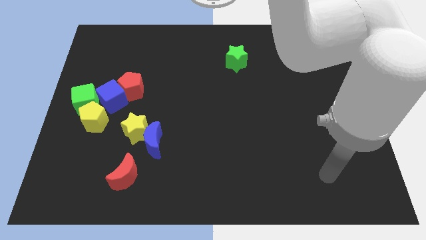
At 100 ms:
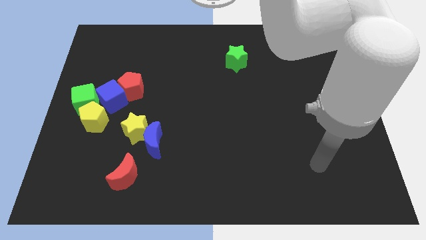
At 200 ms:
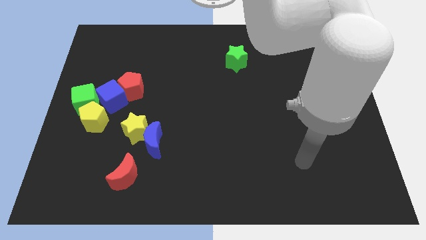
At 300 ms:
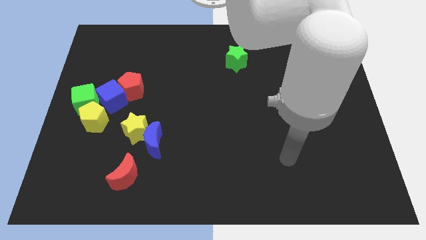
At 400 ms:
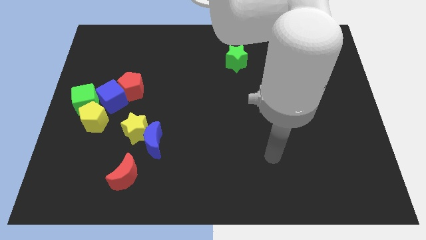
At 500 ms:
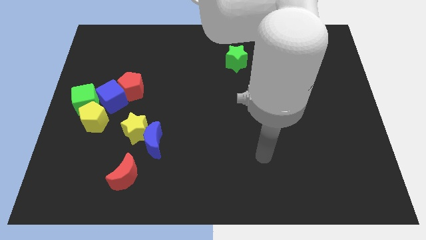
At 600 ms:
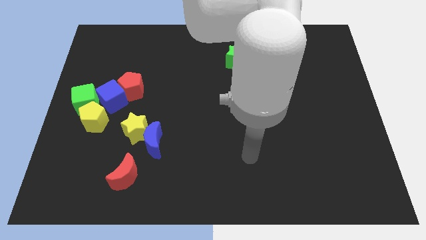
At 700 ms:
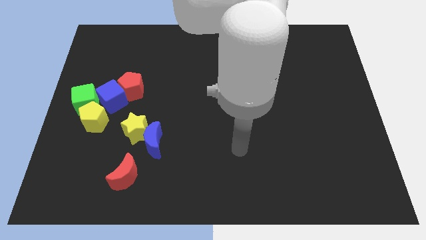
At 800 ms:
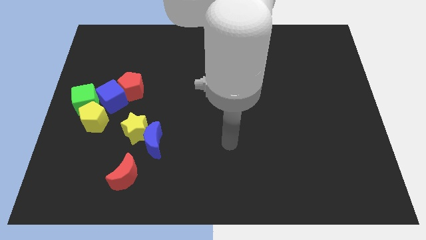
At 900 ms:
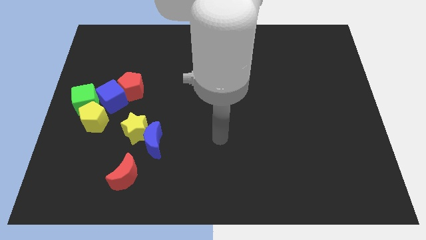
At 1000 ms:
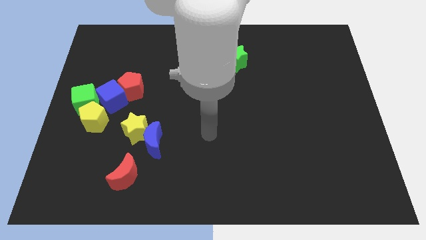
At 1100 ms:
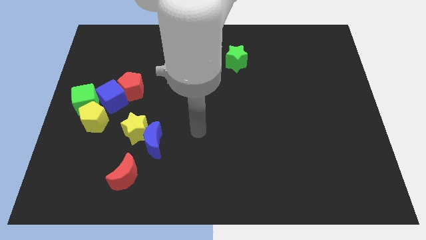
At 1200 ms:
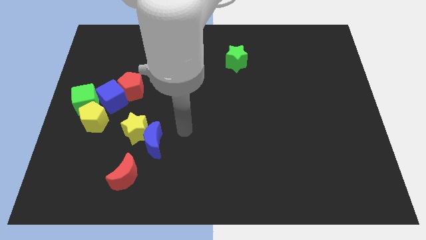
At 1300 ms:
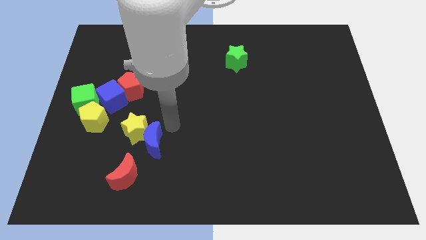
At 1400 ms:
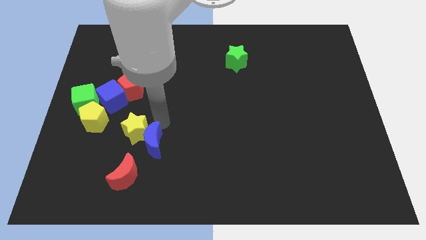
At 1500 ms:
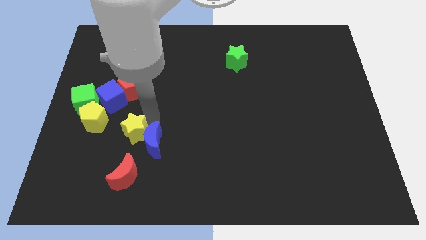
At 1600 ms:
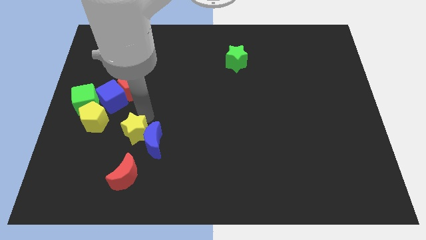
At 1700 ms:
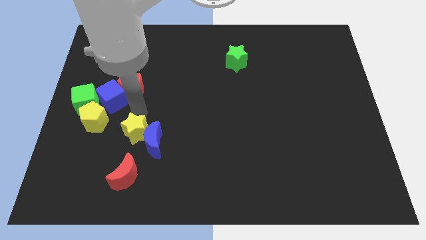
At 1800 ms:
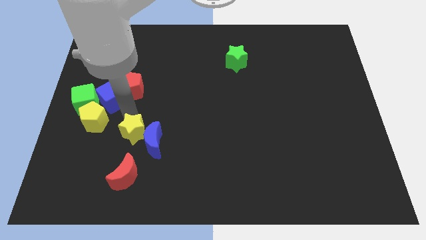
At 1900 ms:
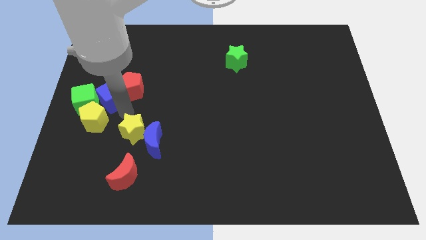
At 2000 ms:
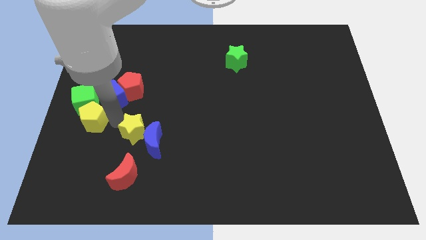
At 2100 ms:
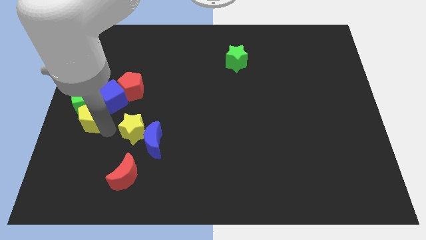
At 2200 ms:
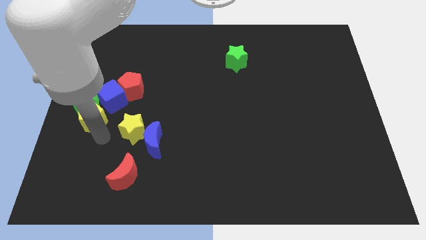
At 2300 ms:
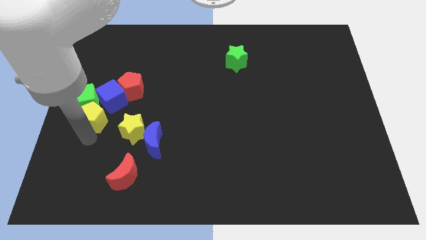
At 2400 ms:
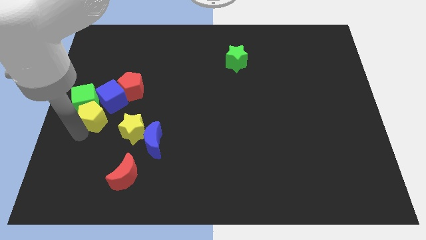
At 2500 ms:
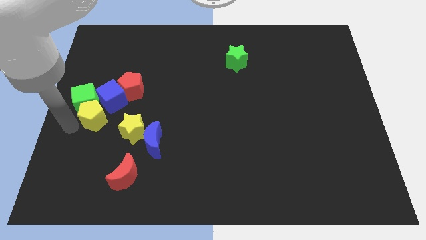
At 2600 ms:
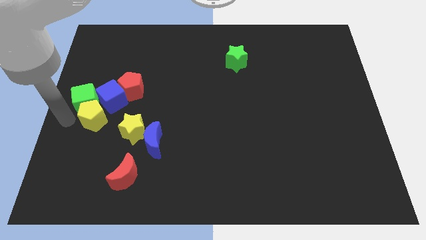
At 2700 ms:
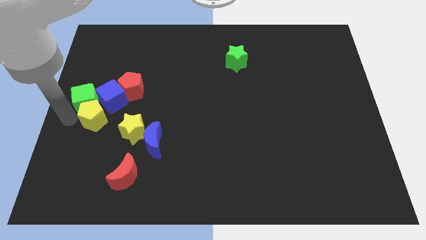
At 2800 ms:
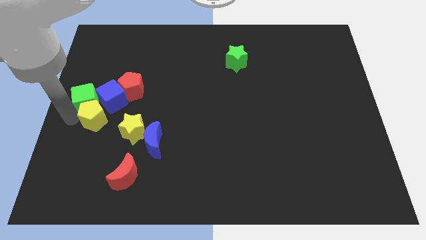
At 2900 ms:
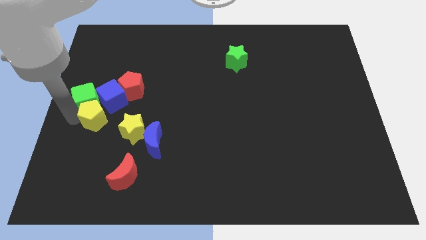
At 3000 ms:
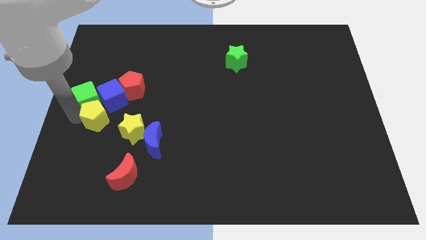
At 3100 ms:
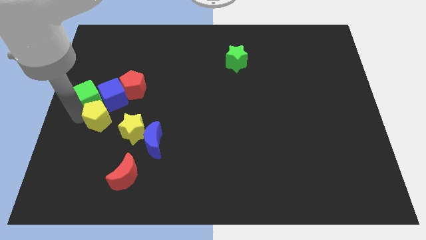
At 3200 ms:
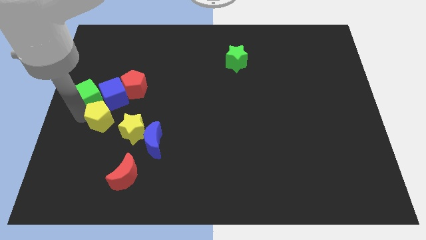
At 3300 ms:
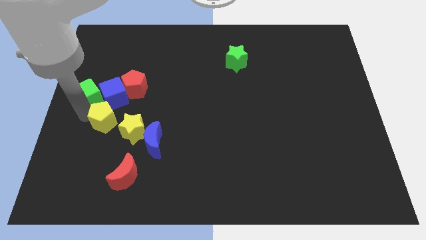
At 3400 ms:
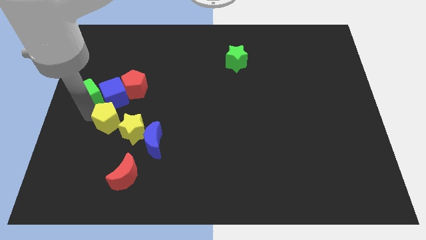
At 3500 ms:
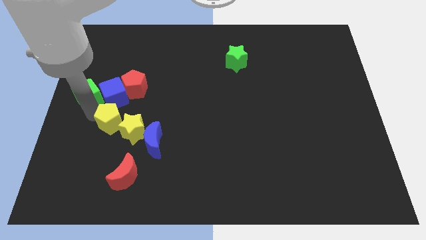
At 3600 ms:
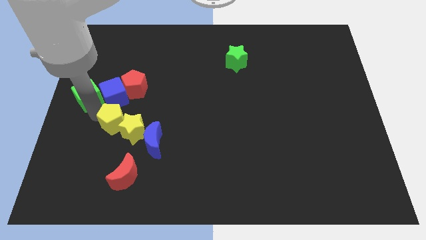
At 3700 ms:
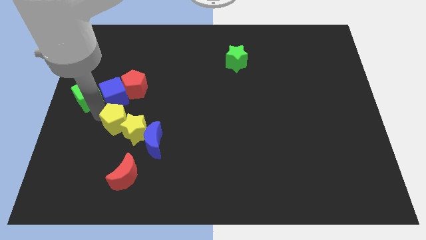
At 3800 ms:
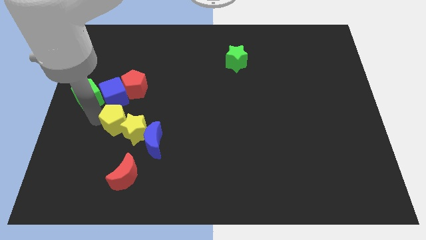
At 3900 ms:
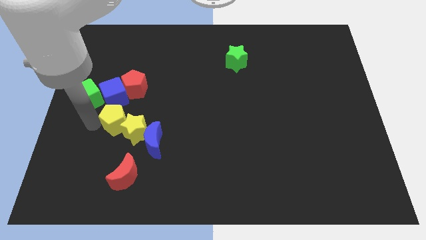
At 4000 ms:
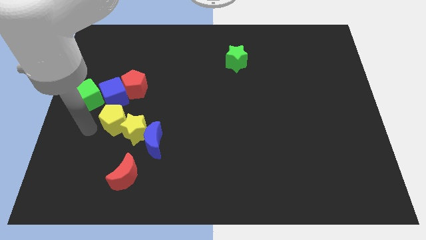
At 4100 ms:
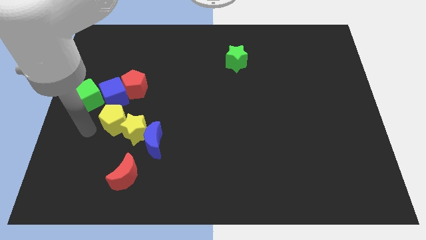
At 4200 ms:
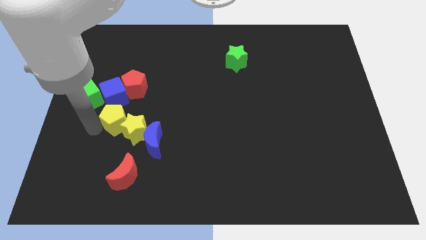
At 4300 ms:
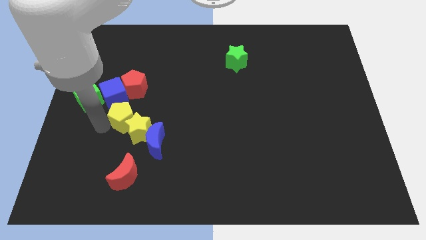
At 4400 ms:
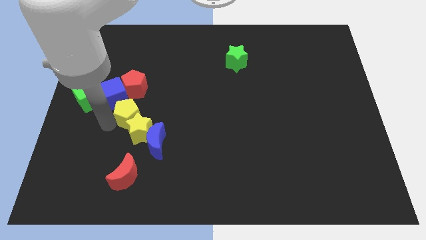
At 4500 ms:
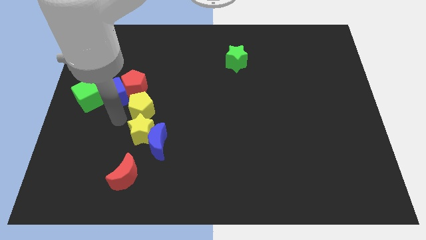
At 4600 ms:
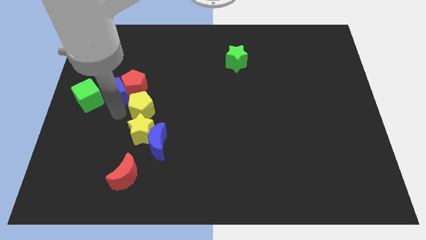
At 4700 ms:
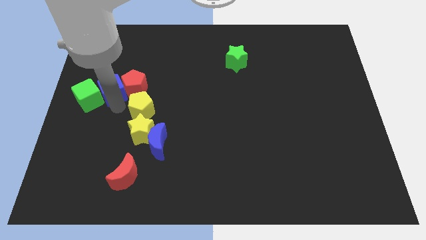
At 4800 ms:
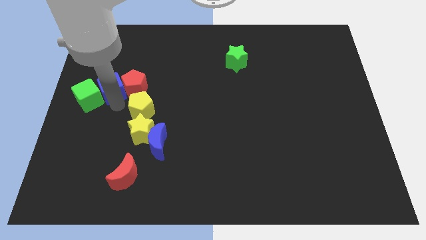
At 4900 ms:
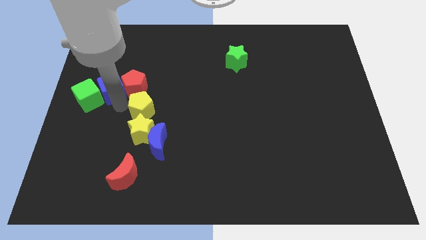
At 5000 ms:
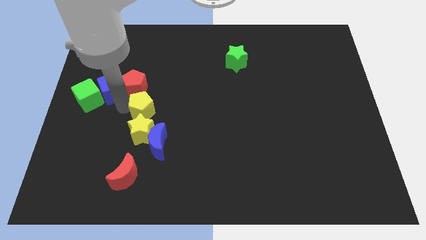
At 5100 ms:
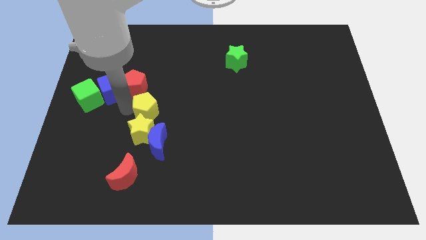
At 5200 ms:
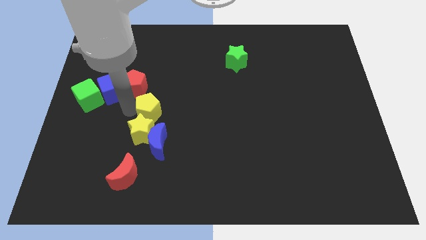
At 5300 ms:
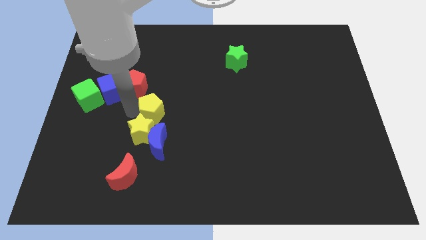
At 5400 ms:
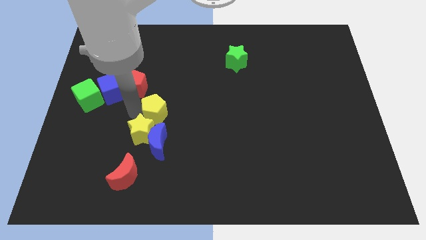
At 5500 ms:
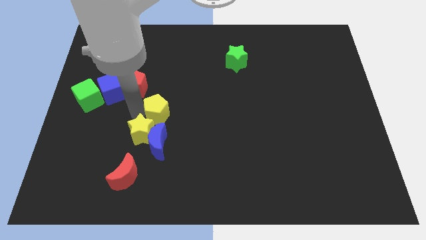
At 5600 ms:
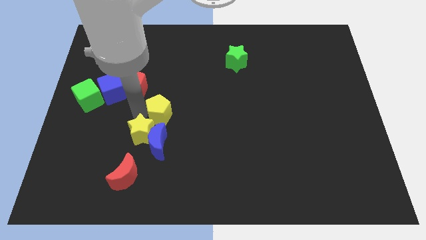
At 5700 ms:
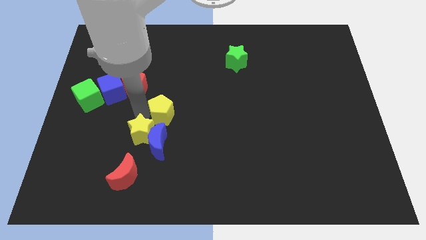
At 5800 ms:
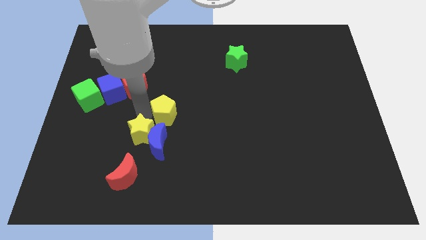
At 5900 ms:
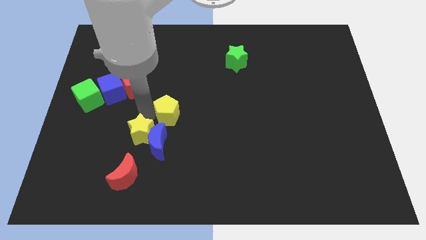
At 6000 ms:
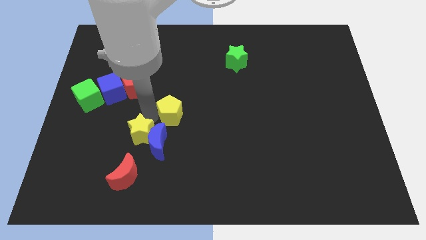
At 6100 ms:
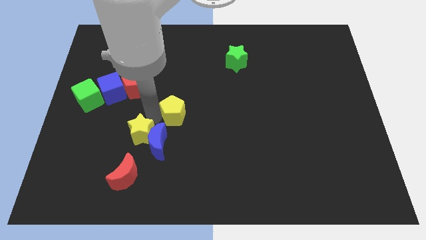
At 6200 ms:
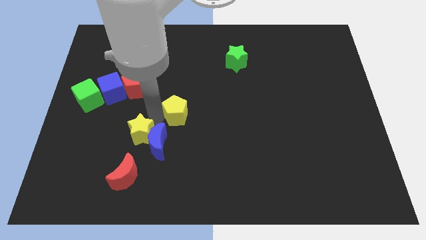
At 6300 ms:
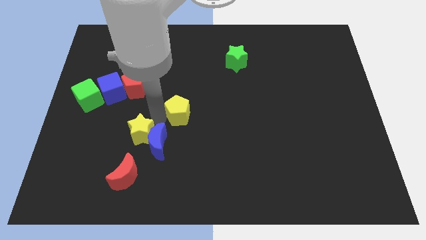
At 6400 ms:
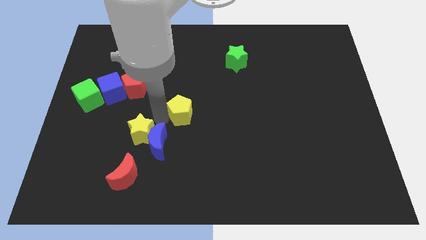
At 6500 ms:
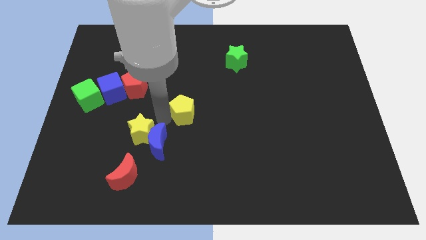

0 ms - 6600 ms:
move the yellow pentagon to the right

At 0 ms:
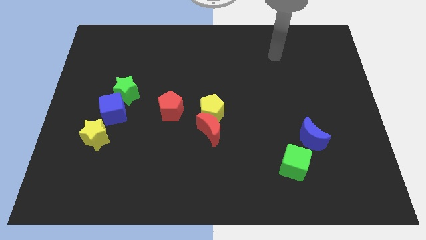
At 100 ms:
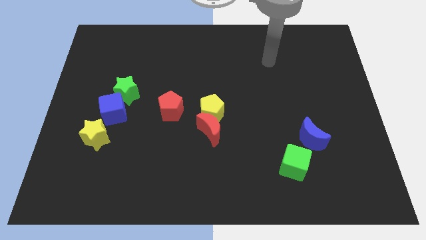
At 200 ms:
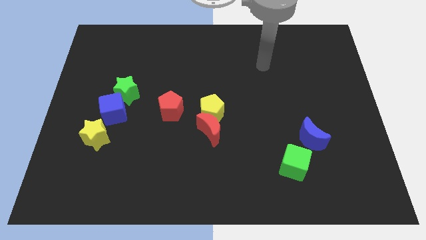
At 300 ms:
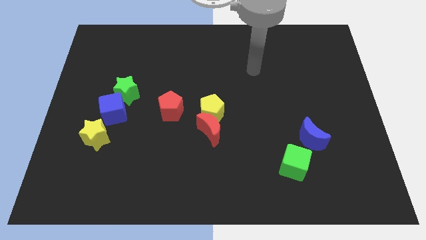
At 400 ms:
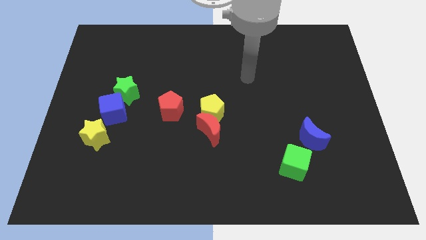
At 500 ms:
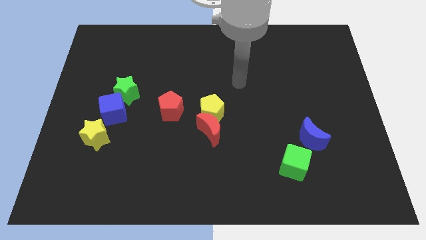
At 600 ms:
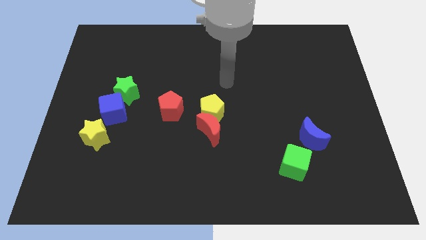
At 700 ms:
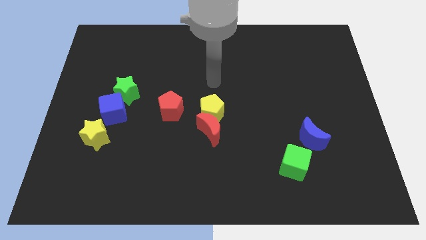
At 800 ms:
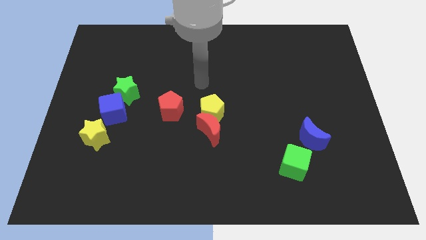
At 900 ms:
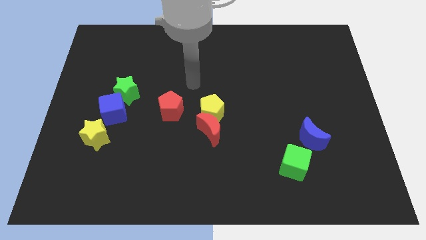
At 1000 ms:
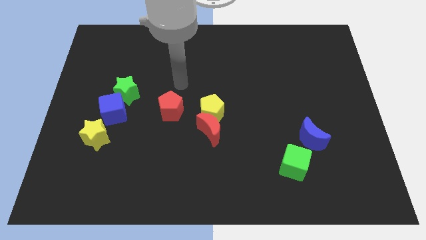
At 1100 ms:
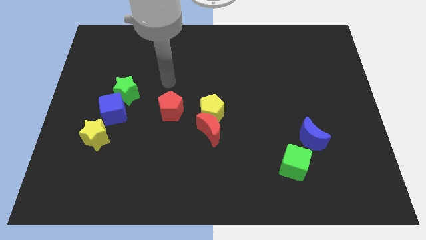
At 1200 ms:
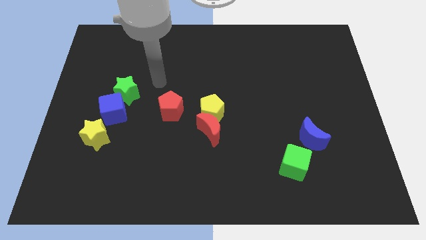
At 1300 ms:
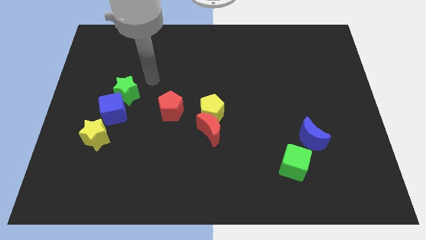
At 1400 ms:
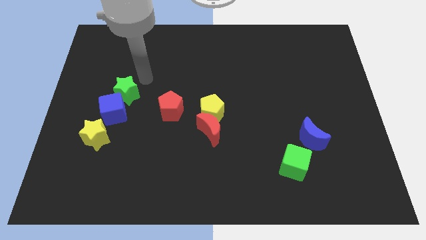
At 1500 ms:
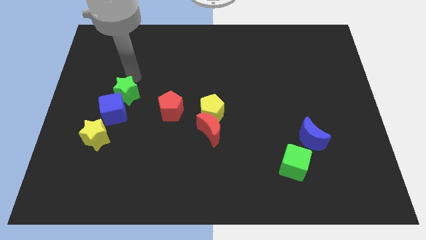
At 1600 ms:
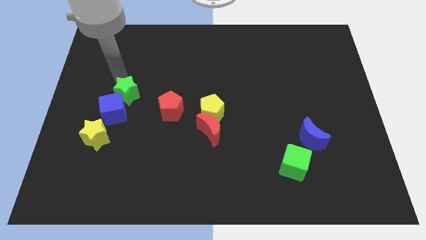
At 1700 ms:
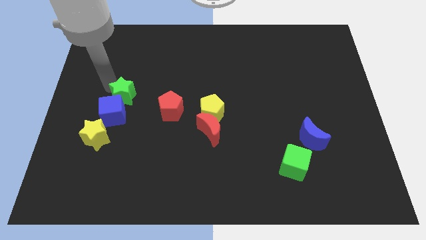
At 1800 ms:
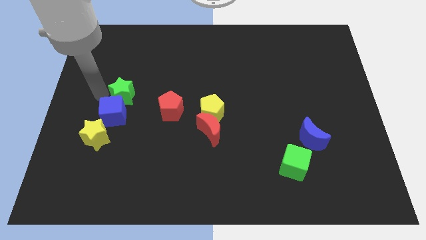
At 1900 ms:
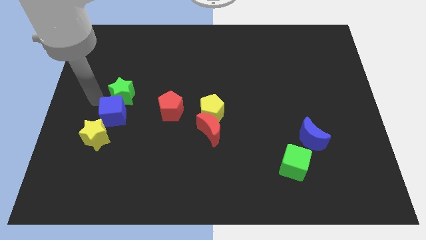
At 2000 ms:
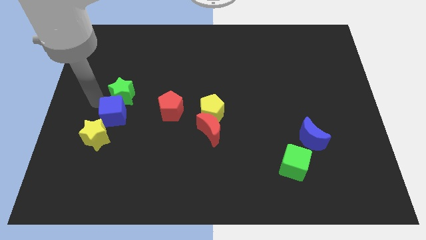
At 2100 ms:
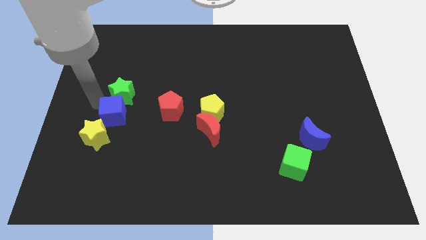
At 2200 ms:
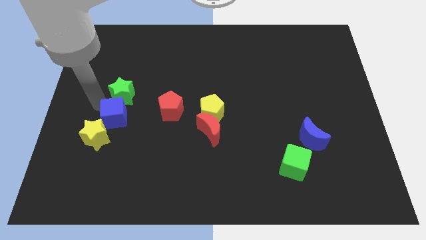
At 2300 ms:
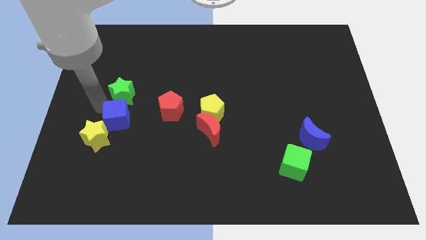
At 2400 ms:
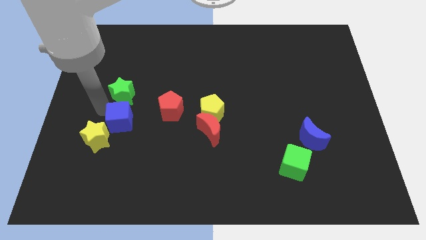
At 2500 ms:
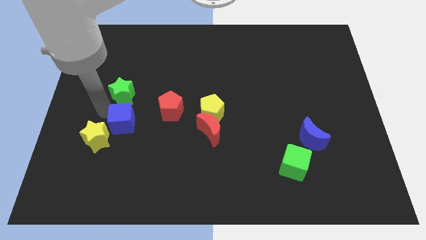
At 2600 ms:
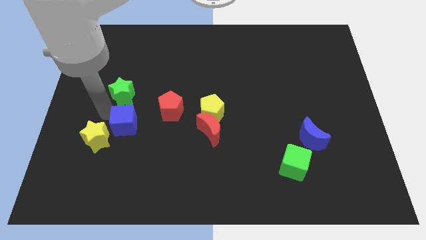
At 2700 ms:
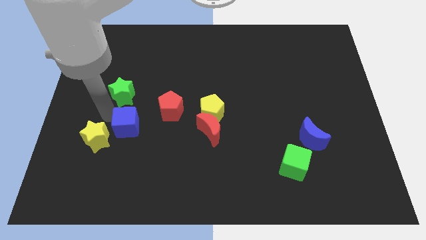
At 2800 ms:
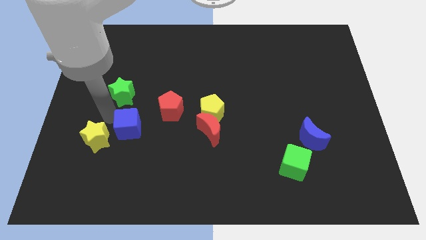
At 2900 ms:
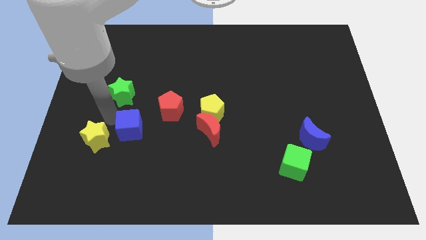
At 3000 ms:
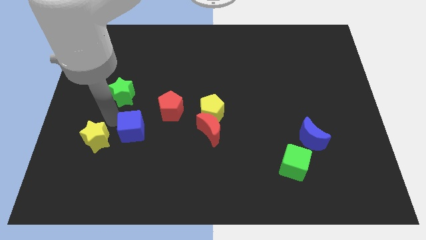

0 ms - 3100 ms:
push the blue cube downwards and right diagonally slightly
